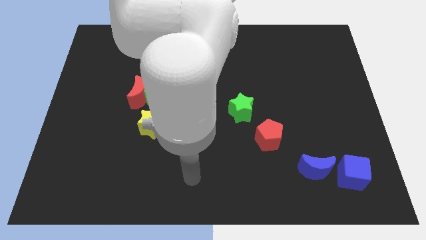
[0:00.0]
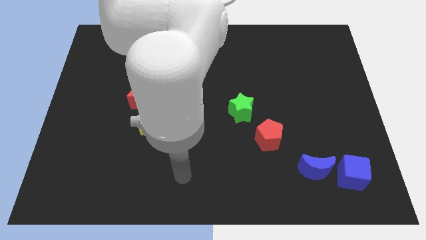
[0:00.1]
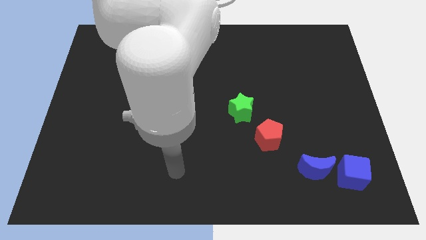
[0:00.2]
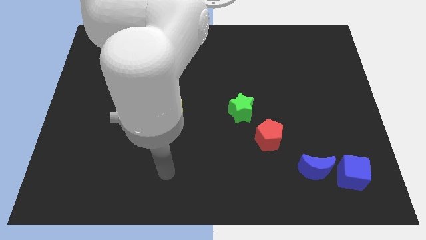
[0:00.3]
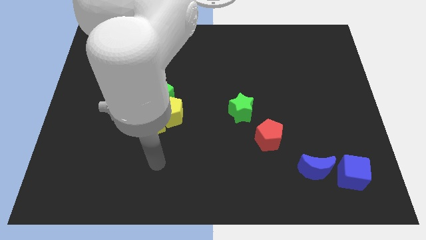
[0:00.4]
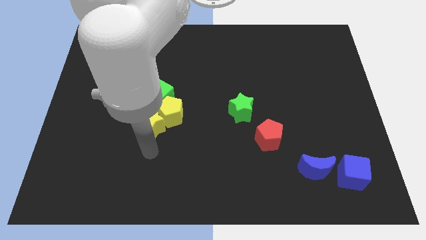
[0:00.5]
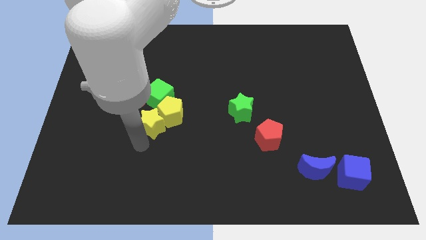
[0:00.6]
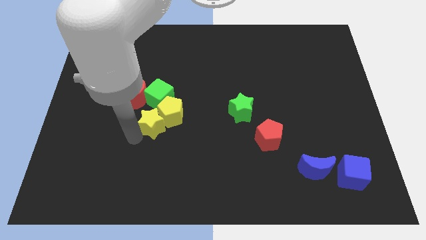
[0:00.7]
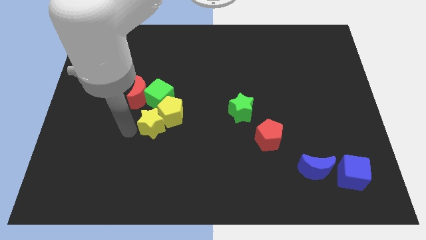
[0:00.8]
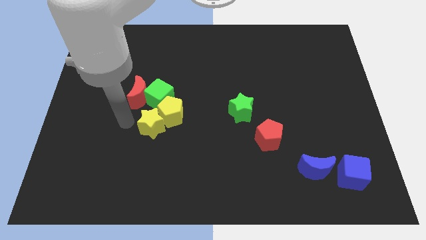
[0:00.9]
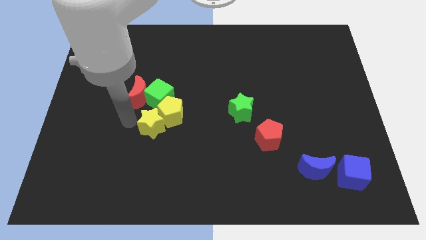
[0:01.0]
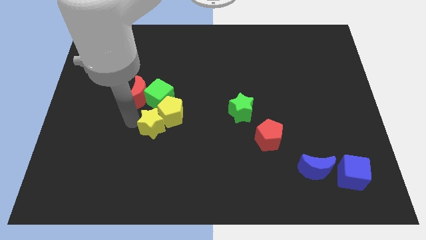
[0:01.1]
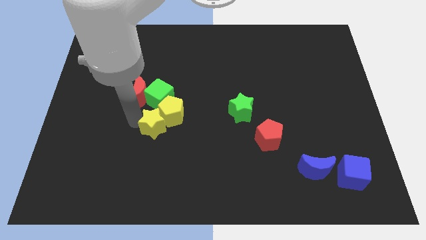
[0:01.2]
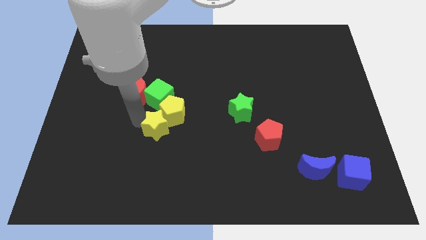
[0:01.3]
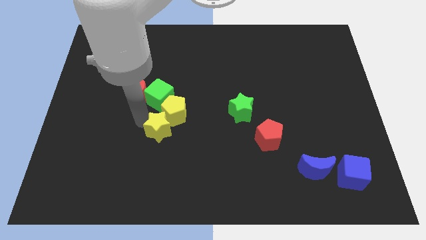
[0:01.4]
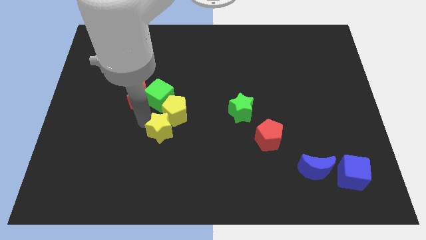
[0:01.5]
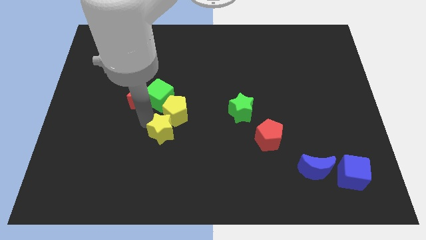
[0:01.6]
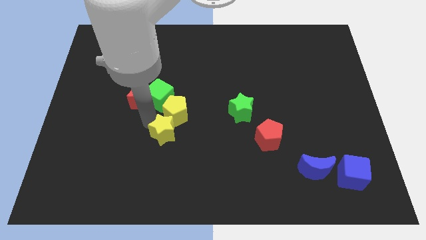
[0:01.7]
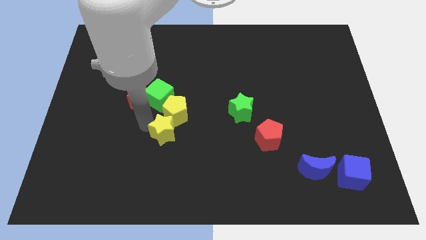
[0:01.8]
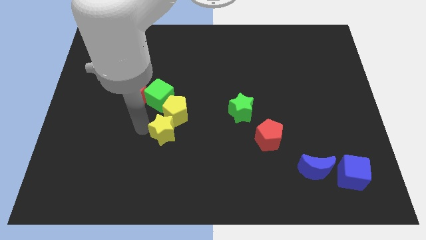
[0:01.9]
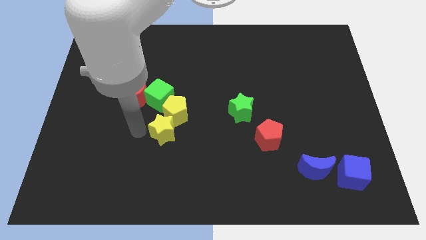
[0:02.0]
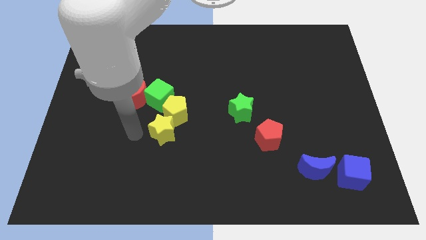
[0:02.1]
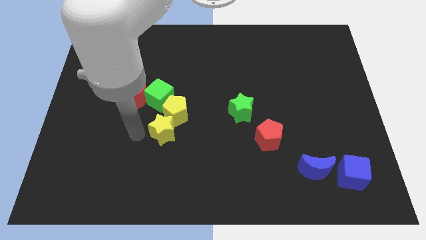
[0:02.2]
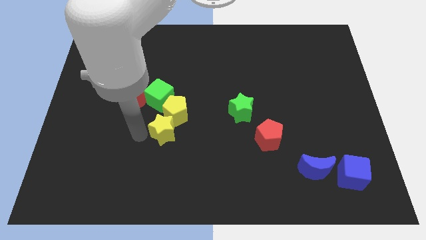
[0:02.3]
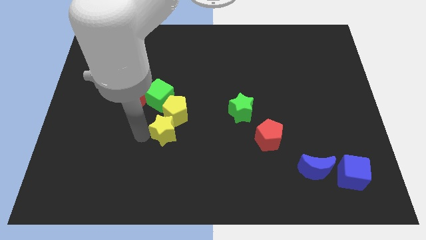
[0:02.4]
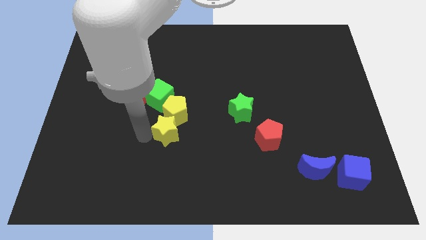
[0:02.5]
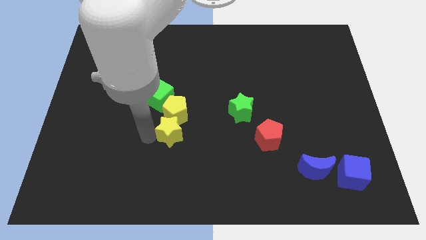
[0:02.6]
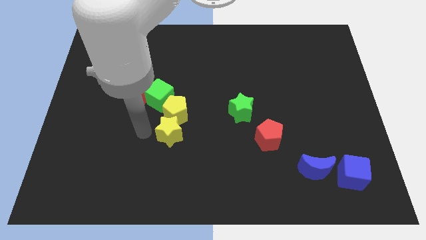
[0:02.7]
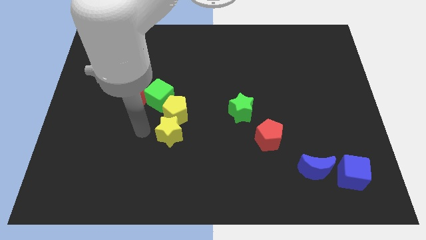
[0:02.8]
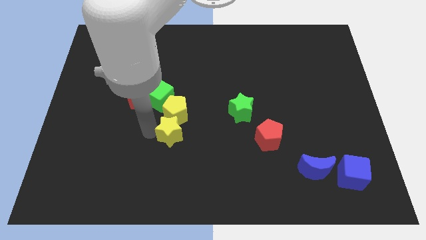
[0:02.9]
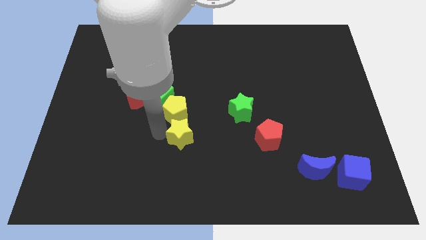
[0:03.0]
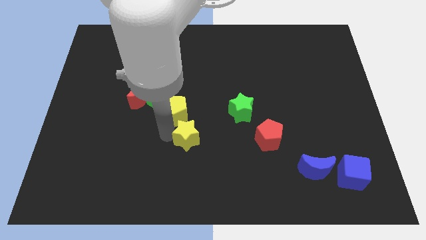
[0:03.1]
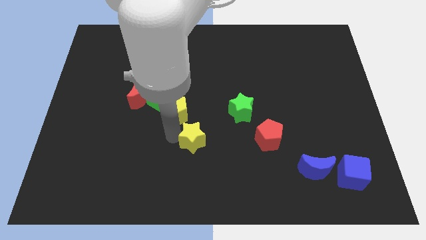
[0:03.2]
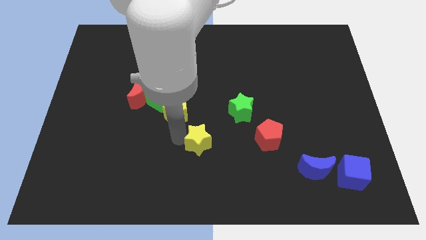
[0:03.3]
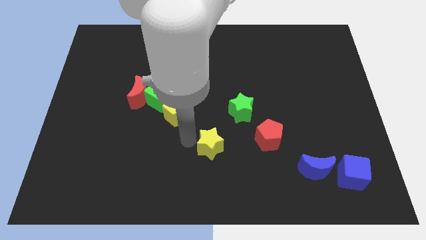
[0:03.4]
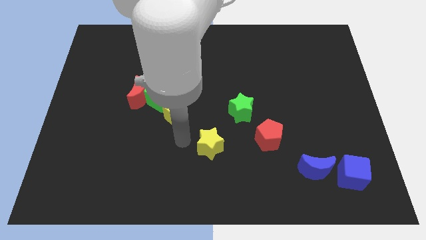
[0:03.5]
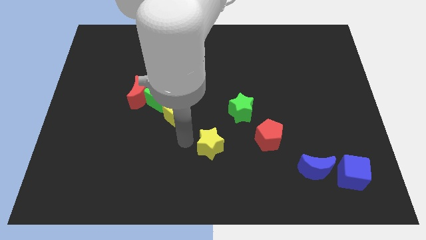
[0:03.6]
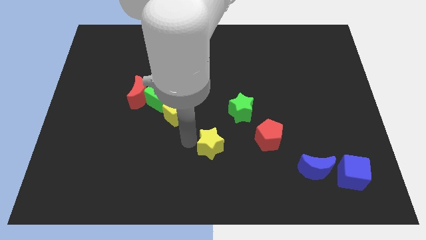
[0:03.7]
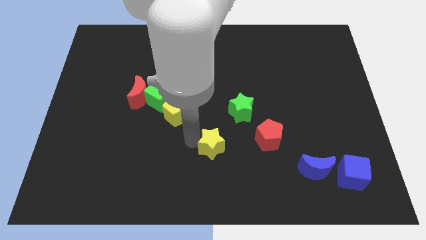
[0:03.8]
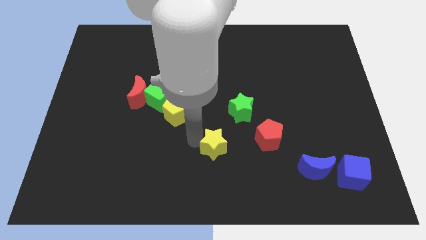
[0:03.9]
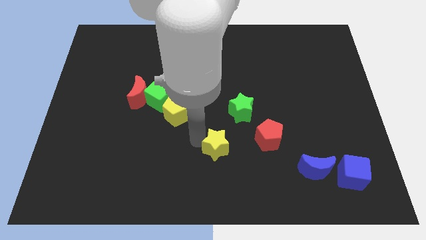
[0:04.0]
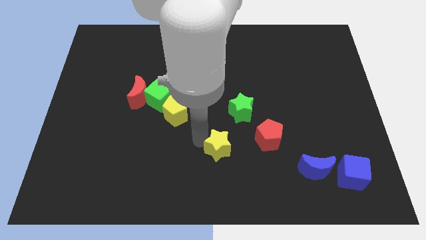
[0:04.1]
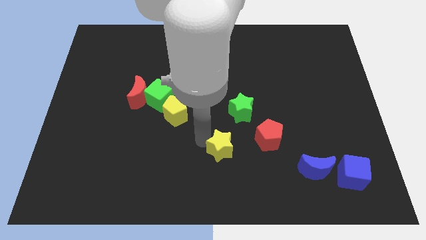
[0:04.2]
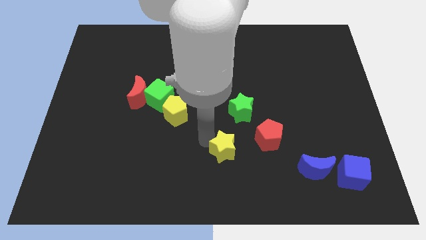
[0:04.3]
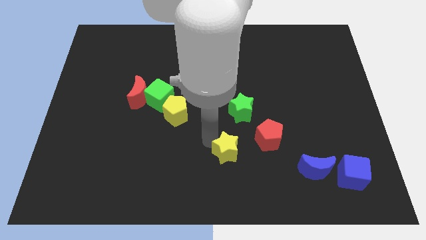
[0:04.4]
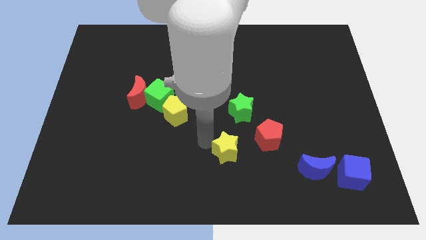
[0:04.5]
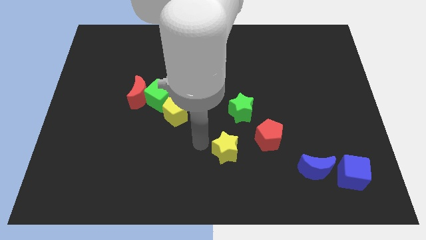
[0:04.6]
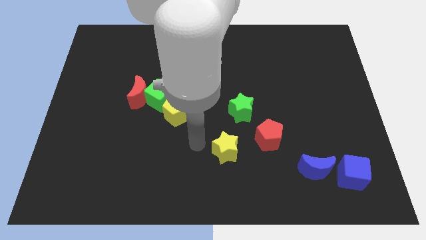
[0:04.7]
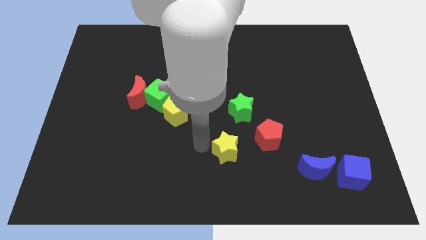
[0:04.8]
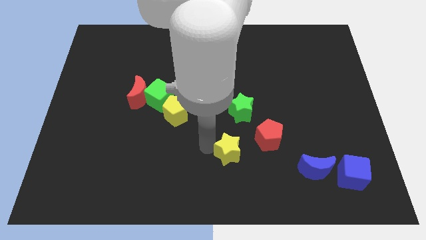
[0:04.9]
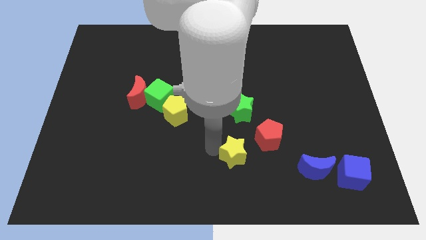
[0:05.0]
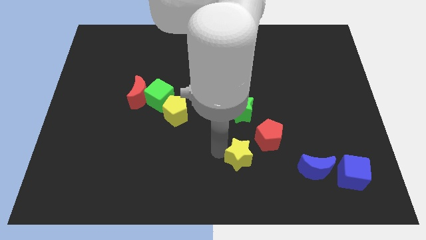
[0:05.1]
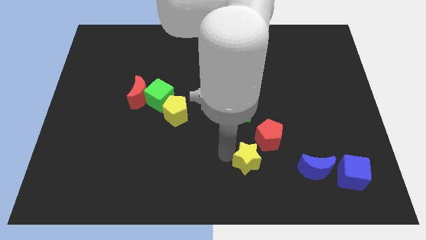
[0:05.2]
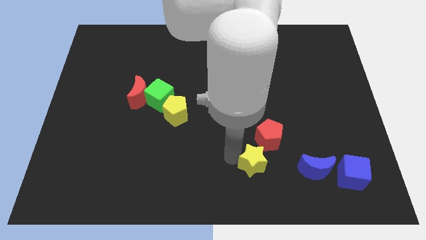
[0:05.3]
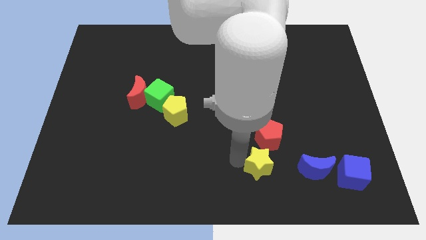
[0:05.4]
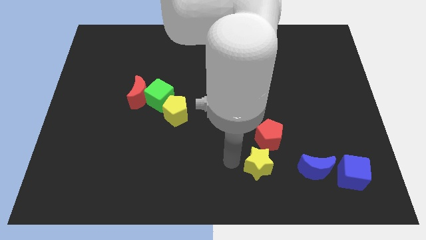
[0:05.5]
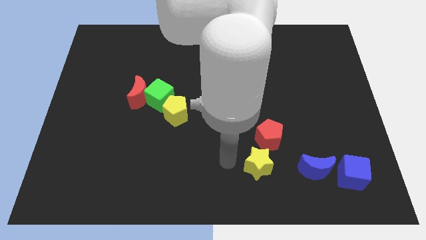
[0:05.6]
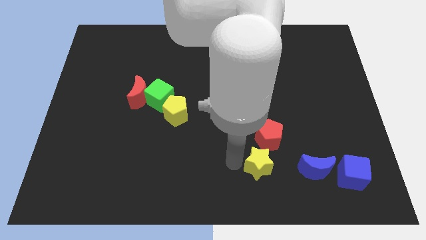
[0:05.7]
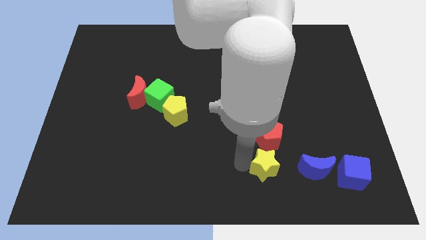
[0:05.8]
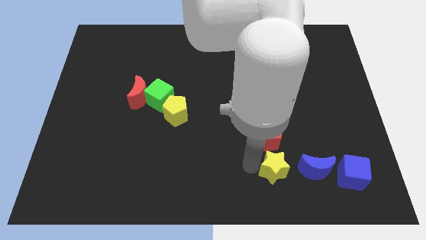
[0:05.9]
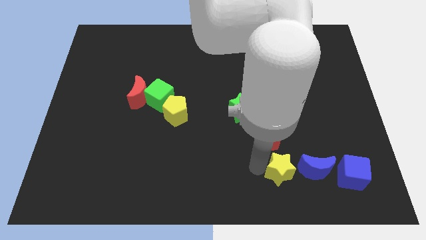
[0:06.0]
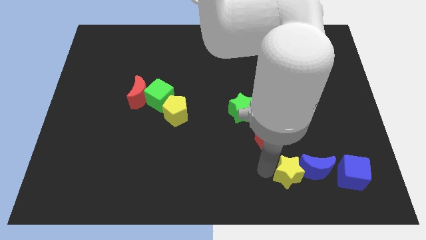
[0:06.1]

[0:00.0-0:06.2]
push the yellow star to the blue moon

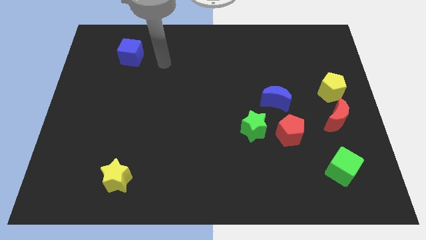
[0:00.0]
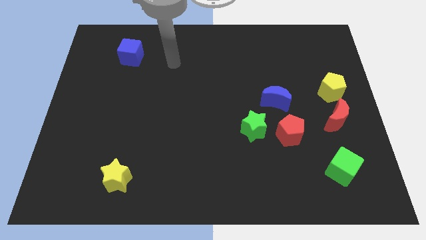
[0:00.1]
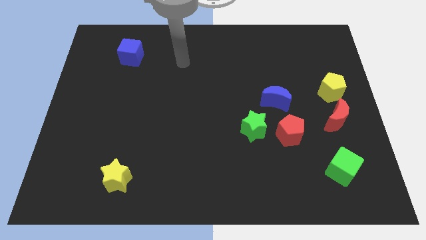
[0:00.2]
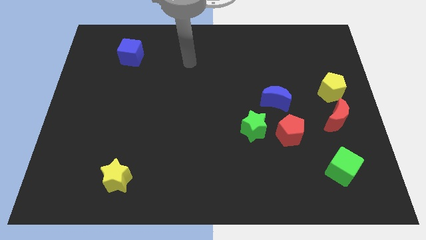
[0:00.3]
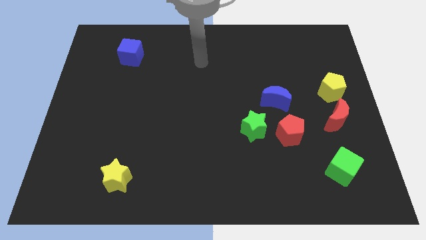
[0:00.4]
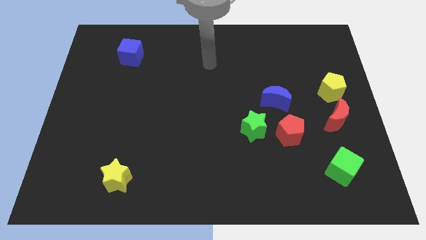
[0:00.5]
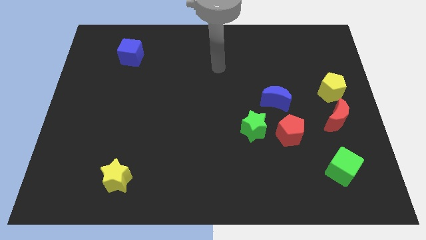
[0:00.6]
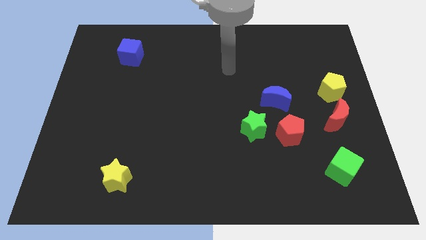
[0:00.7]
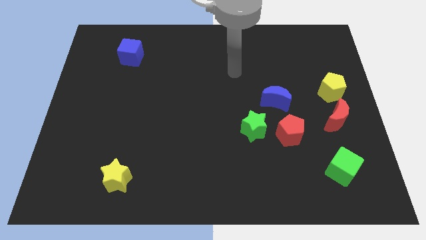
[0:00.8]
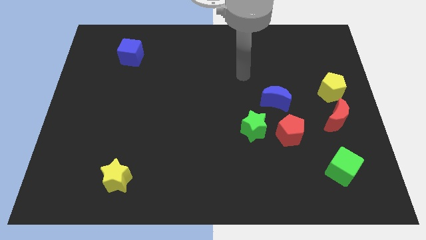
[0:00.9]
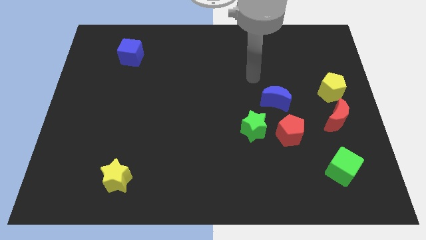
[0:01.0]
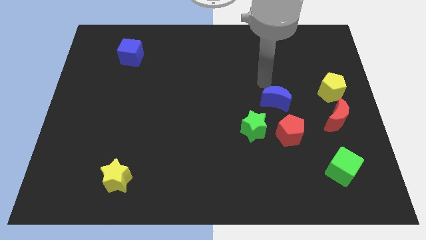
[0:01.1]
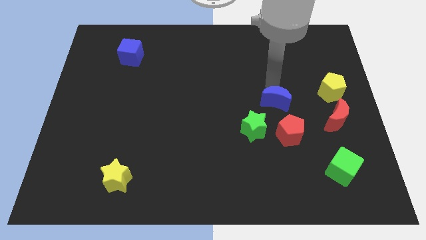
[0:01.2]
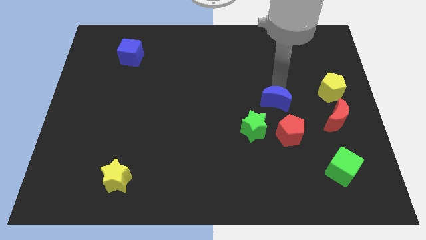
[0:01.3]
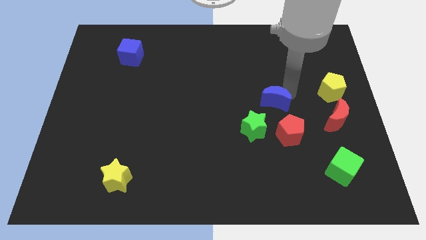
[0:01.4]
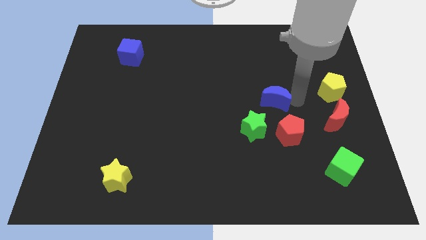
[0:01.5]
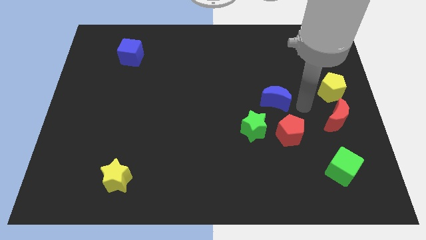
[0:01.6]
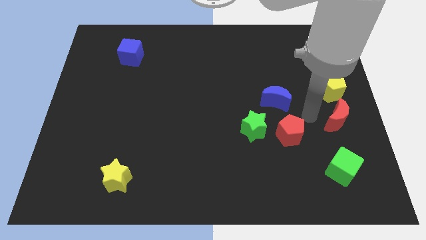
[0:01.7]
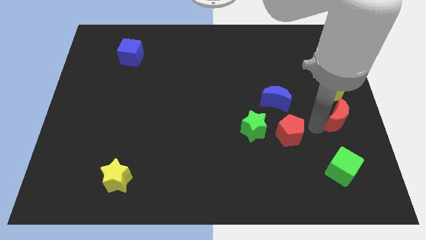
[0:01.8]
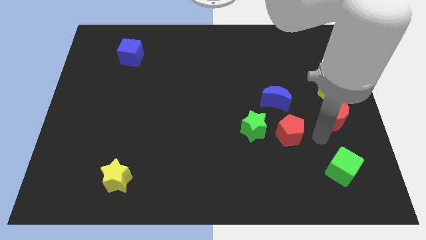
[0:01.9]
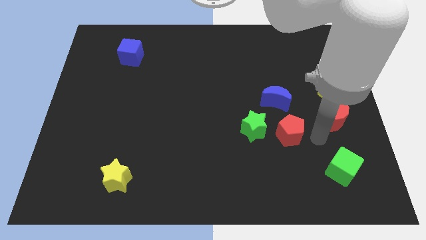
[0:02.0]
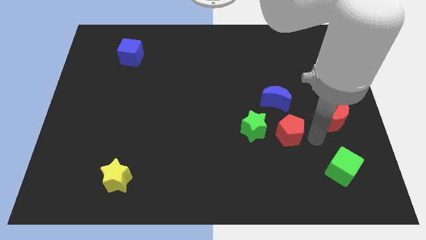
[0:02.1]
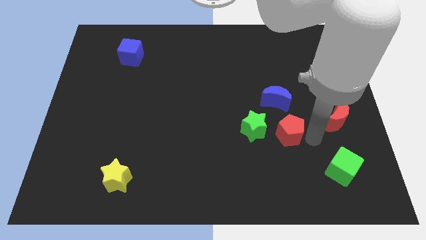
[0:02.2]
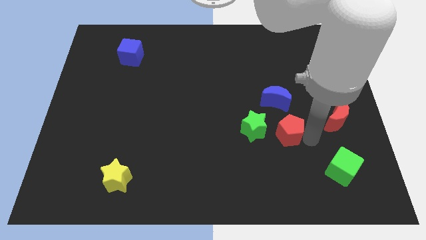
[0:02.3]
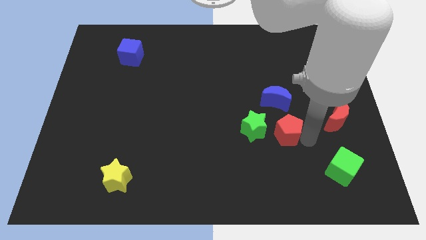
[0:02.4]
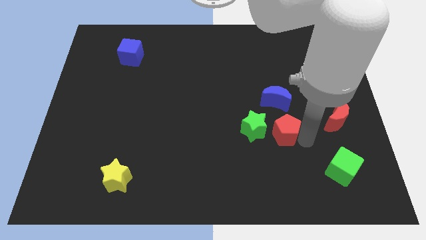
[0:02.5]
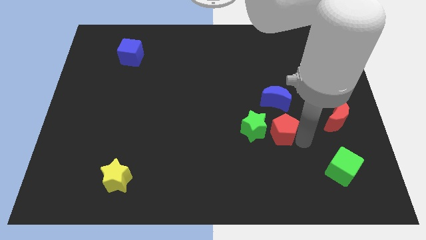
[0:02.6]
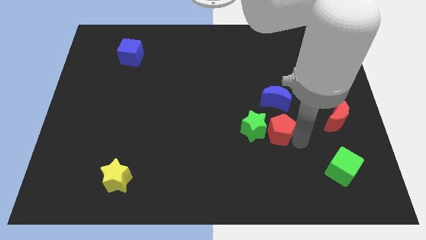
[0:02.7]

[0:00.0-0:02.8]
put the red pentagon to the green star
